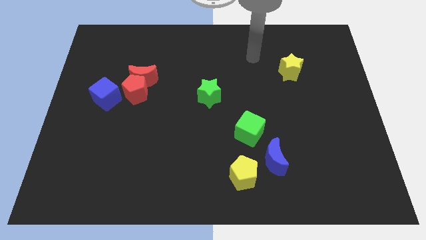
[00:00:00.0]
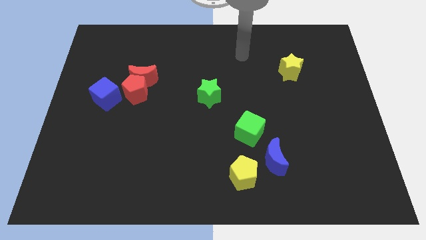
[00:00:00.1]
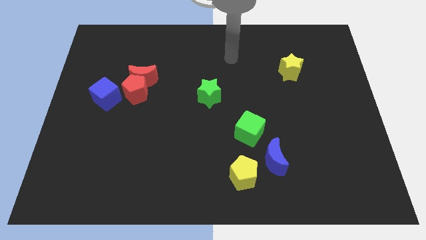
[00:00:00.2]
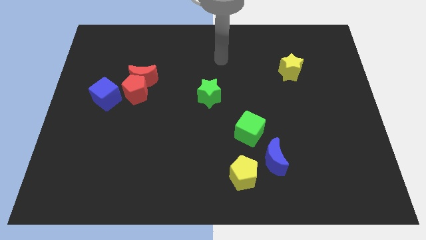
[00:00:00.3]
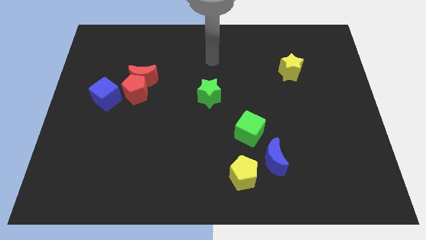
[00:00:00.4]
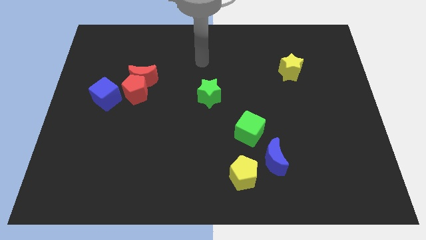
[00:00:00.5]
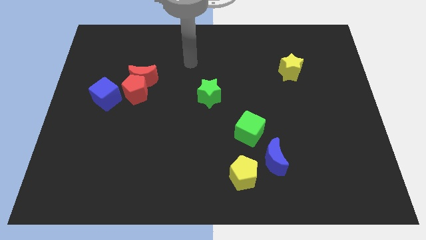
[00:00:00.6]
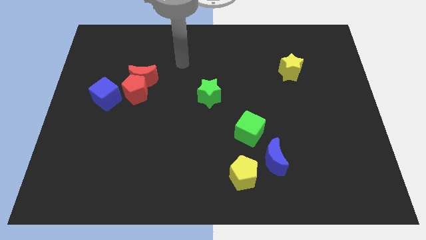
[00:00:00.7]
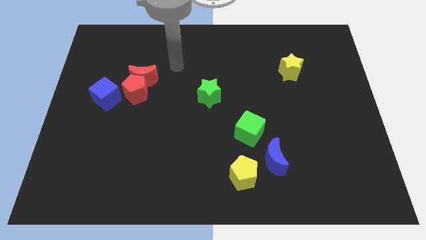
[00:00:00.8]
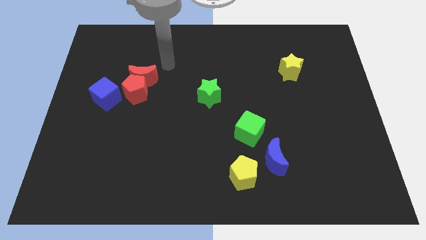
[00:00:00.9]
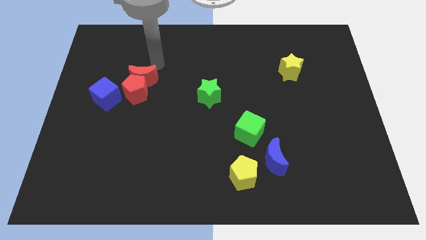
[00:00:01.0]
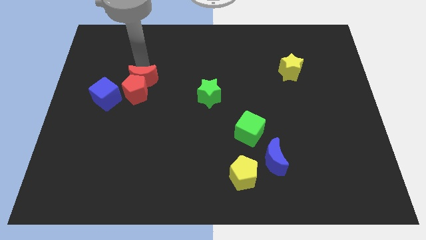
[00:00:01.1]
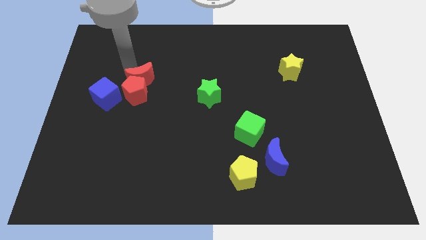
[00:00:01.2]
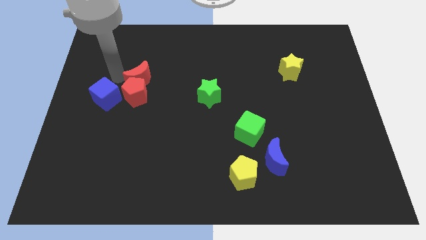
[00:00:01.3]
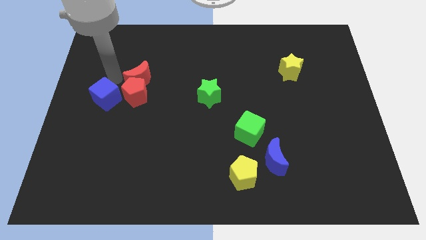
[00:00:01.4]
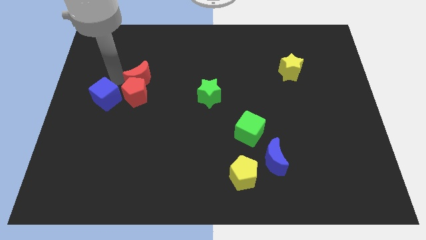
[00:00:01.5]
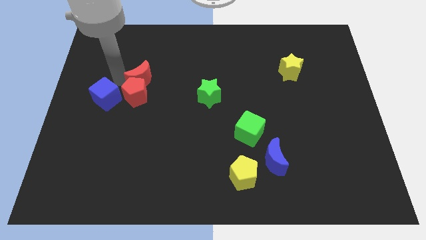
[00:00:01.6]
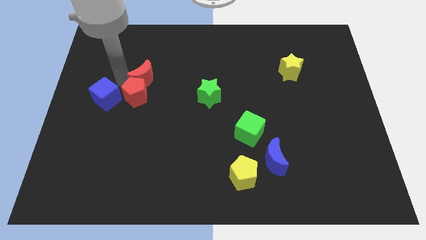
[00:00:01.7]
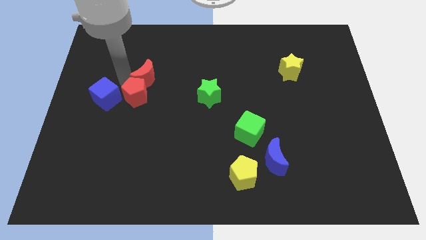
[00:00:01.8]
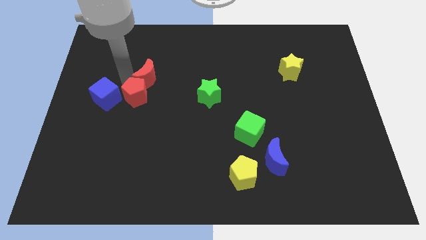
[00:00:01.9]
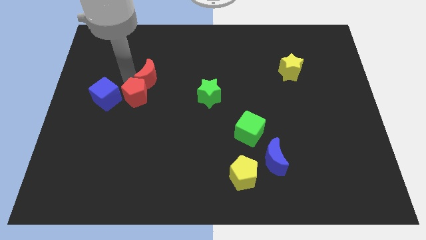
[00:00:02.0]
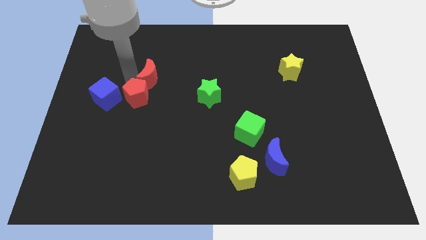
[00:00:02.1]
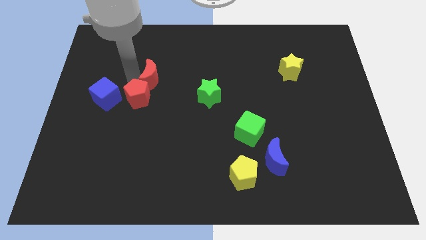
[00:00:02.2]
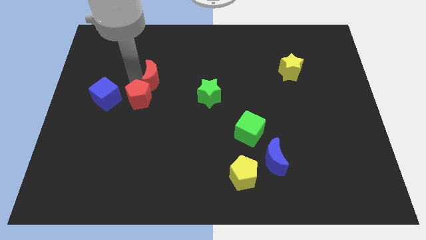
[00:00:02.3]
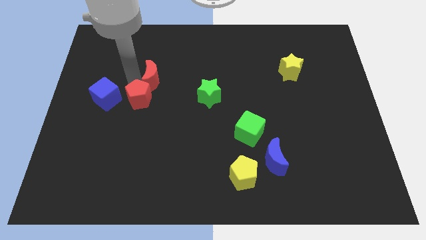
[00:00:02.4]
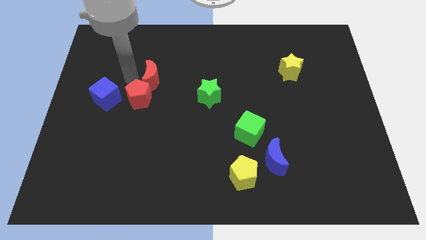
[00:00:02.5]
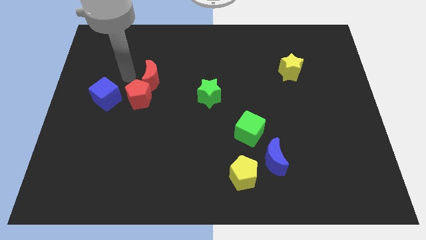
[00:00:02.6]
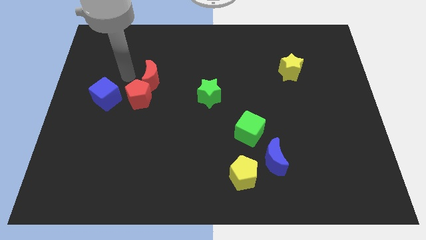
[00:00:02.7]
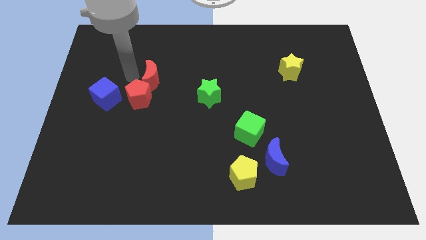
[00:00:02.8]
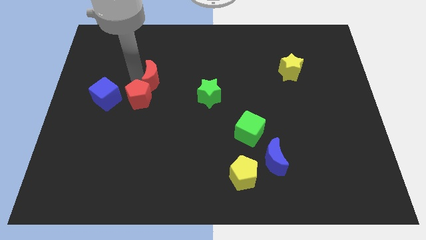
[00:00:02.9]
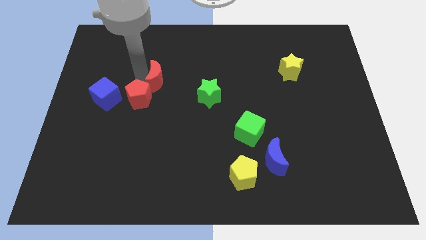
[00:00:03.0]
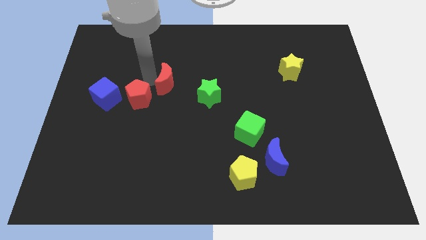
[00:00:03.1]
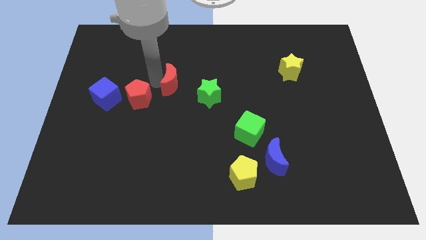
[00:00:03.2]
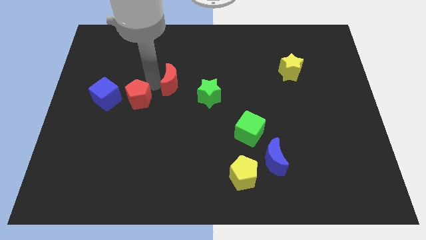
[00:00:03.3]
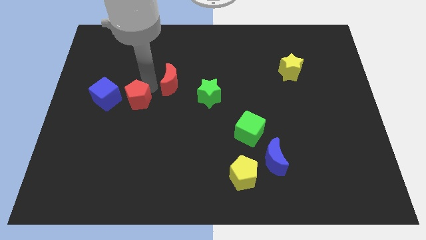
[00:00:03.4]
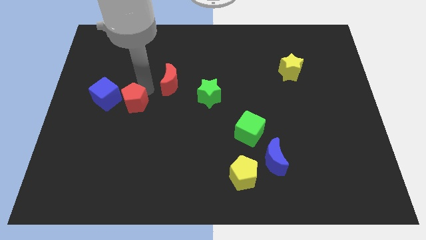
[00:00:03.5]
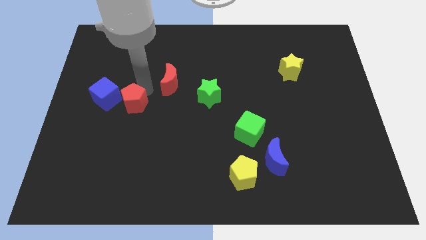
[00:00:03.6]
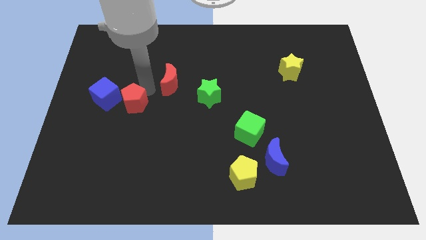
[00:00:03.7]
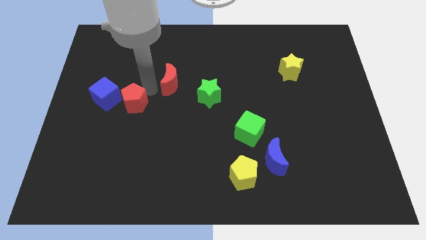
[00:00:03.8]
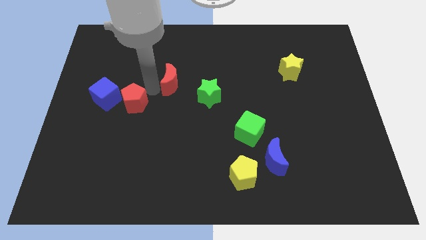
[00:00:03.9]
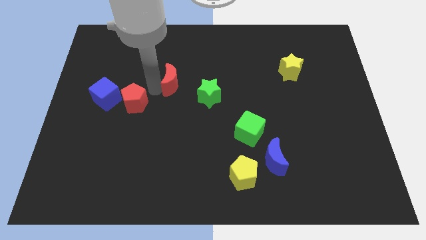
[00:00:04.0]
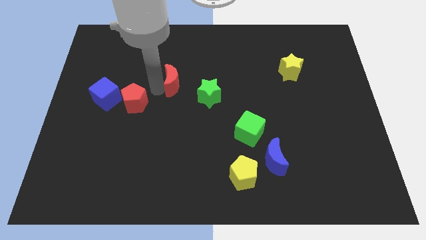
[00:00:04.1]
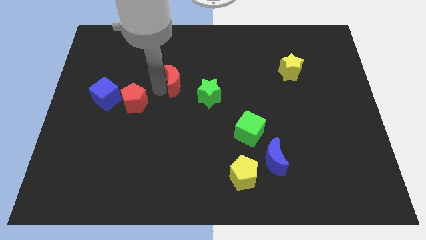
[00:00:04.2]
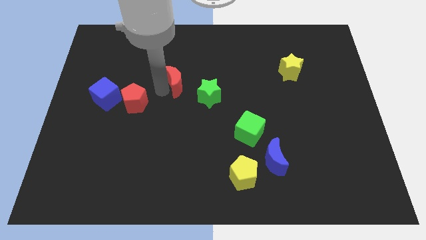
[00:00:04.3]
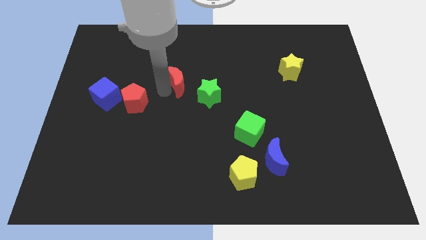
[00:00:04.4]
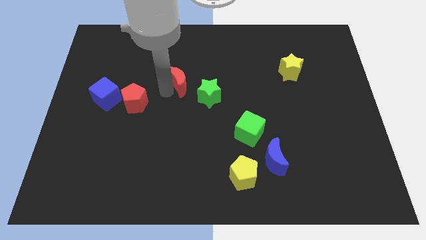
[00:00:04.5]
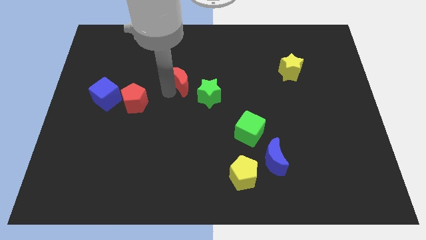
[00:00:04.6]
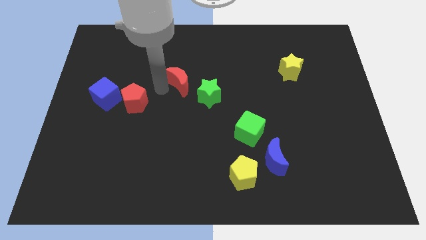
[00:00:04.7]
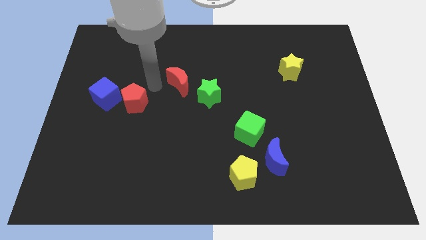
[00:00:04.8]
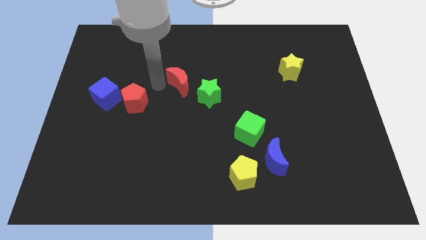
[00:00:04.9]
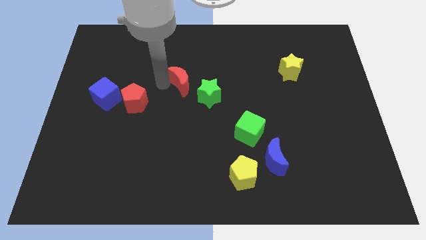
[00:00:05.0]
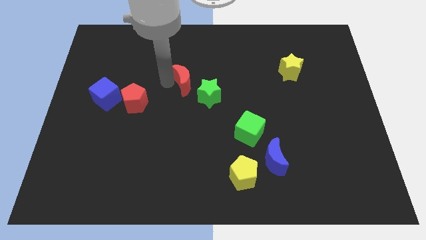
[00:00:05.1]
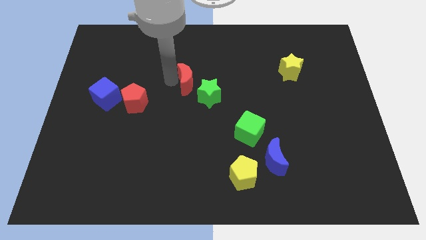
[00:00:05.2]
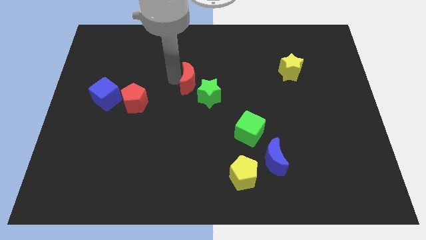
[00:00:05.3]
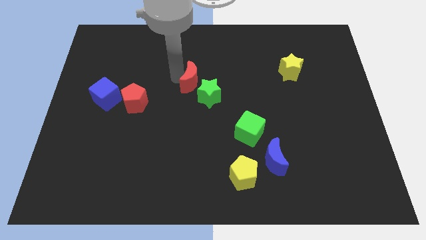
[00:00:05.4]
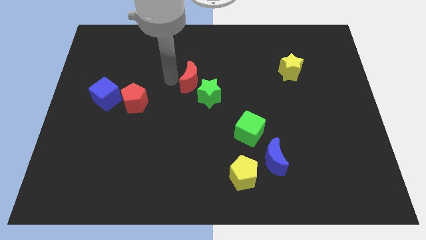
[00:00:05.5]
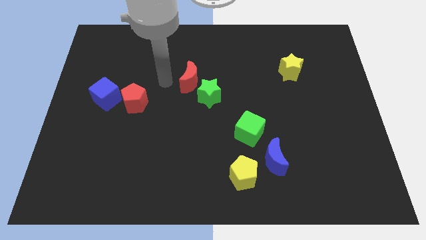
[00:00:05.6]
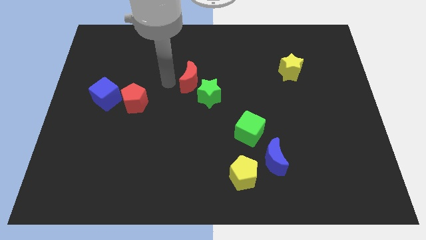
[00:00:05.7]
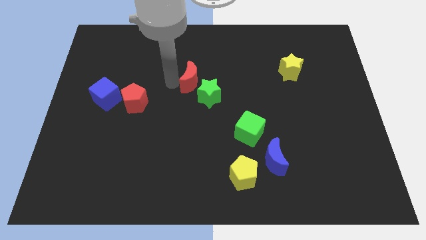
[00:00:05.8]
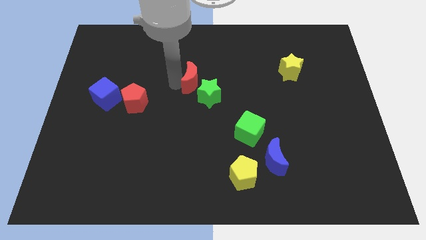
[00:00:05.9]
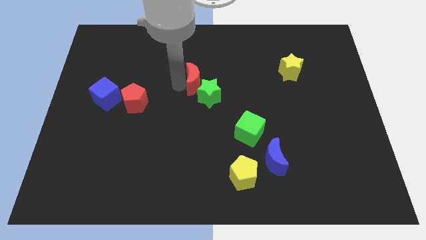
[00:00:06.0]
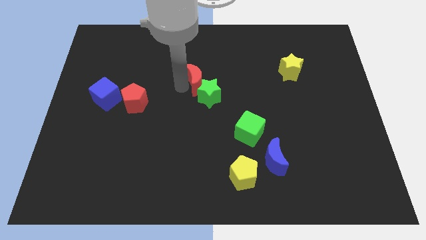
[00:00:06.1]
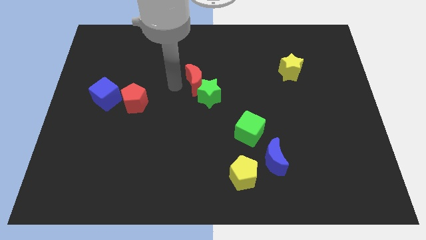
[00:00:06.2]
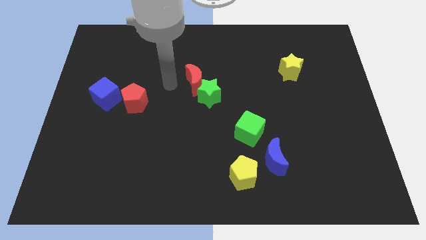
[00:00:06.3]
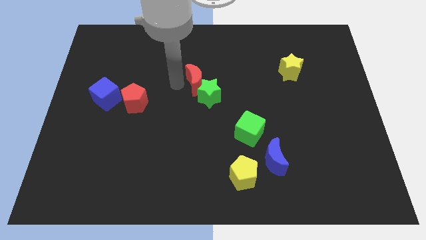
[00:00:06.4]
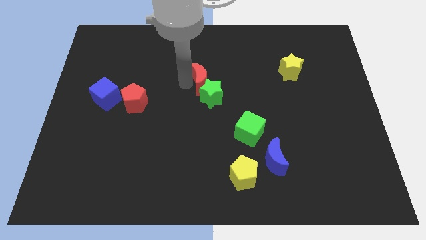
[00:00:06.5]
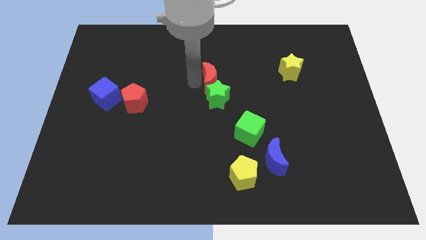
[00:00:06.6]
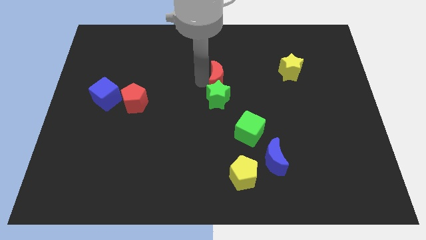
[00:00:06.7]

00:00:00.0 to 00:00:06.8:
move the red moon diagonally up and to the right of the green star

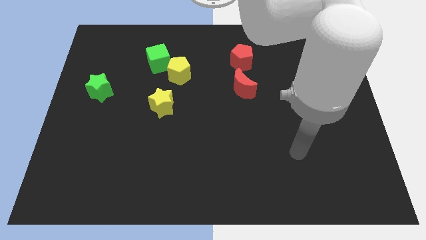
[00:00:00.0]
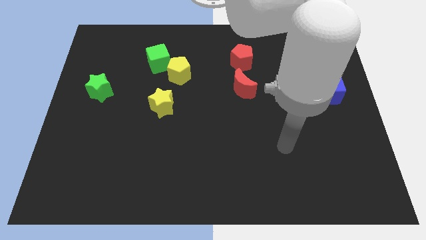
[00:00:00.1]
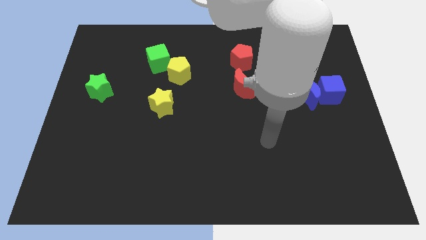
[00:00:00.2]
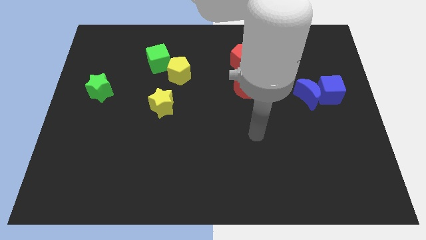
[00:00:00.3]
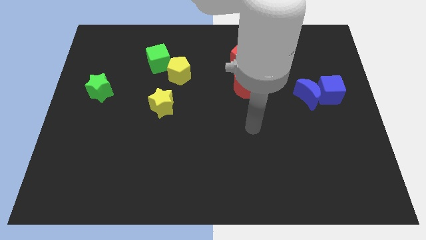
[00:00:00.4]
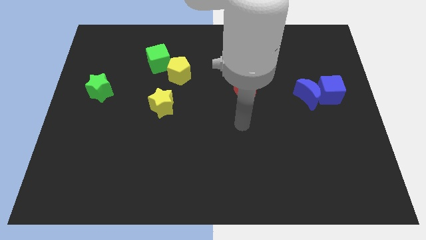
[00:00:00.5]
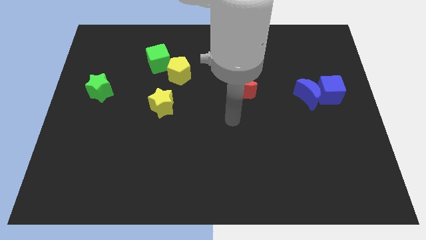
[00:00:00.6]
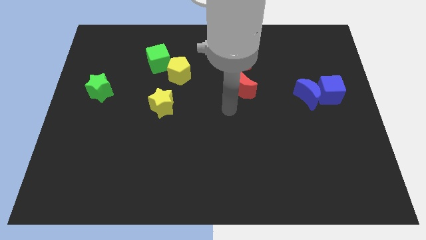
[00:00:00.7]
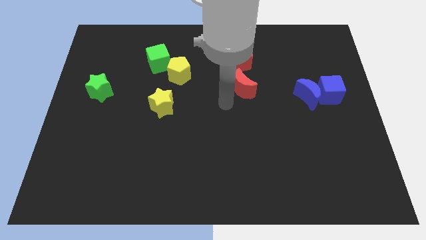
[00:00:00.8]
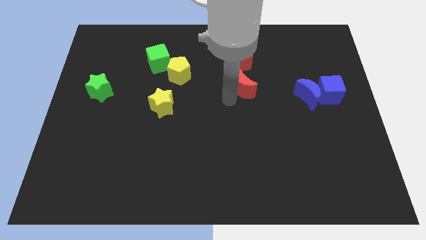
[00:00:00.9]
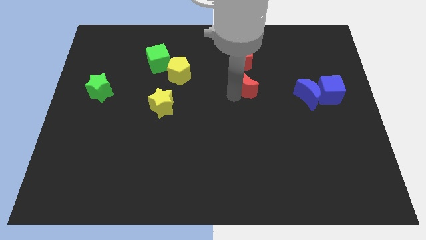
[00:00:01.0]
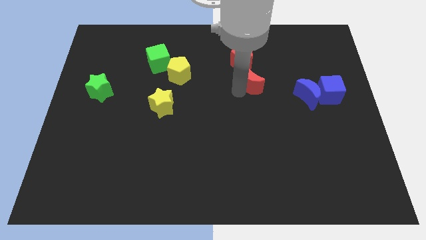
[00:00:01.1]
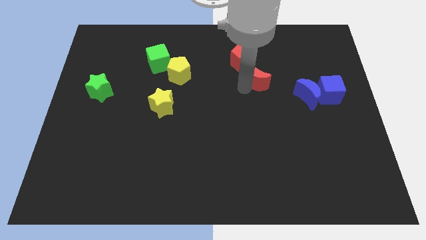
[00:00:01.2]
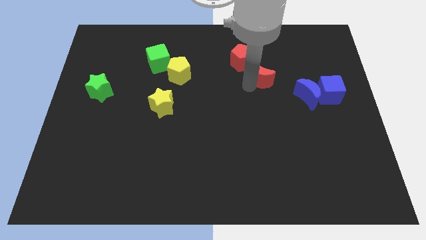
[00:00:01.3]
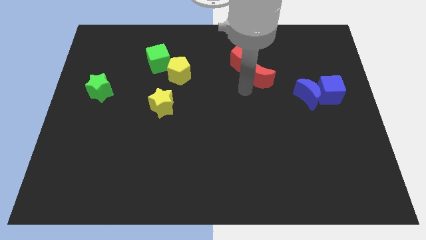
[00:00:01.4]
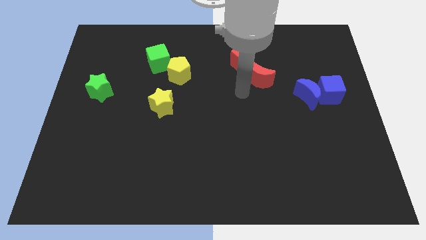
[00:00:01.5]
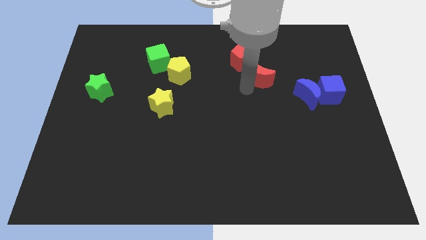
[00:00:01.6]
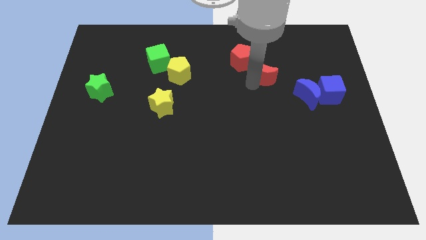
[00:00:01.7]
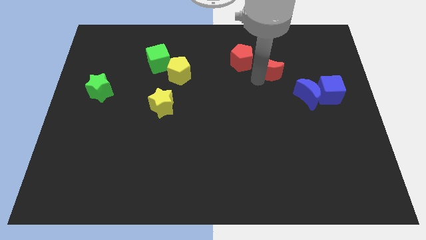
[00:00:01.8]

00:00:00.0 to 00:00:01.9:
slide the red moon to the right side of the red pentagon
